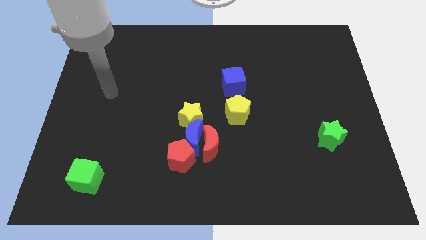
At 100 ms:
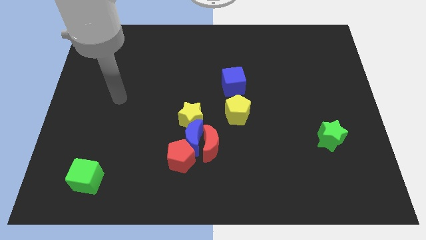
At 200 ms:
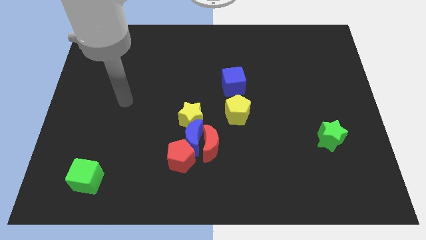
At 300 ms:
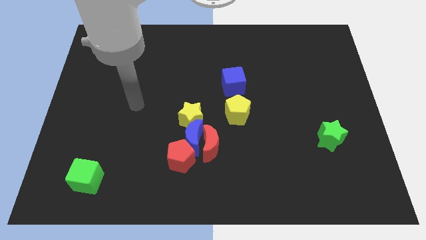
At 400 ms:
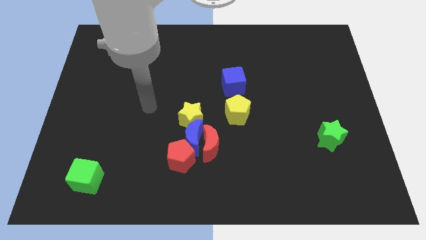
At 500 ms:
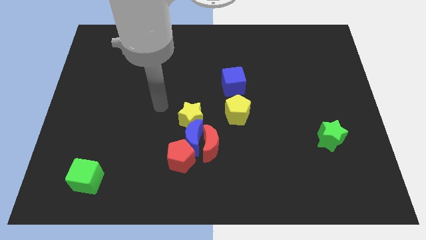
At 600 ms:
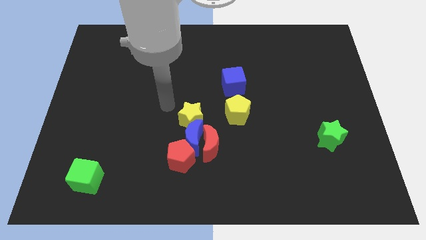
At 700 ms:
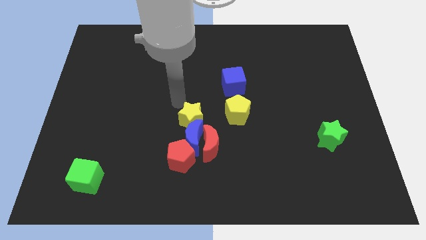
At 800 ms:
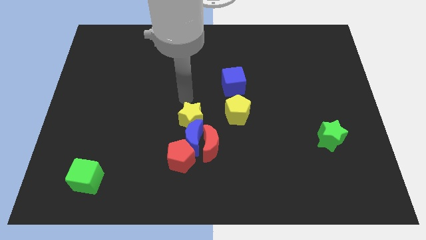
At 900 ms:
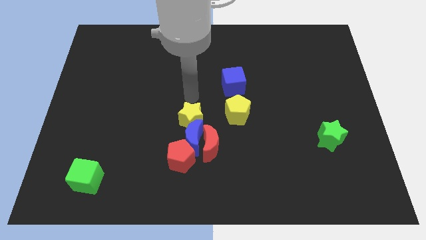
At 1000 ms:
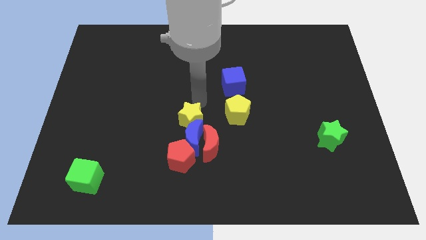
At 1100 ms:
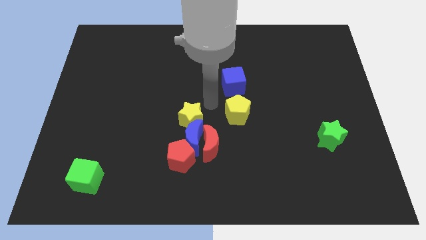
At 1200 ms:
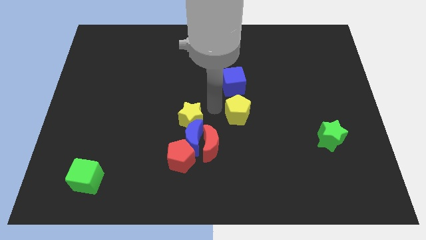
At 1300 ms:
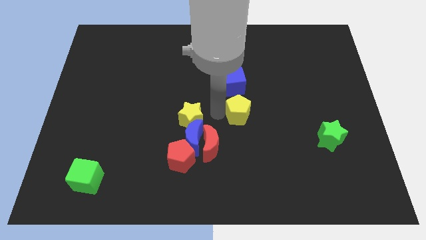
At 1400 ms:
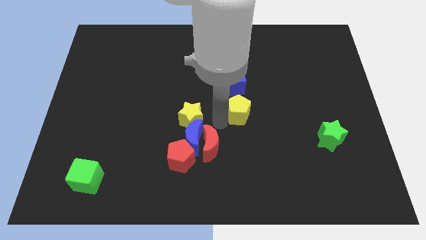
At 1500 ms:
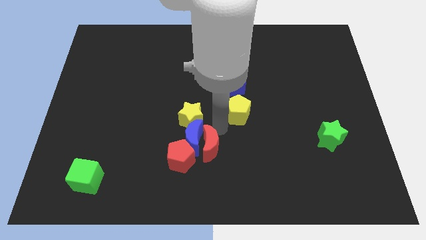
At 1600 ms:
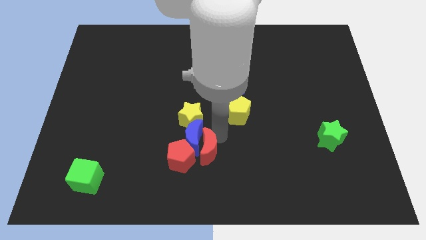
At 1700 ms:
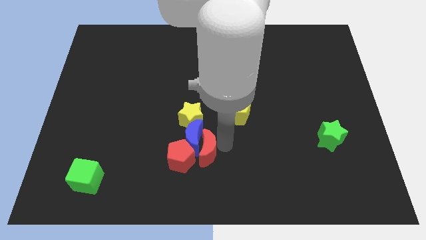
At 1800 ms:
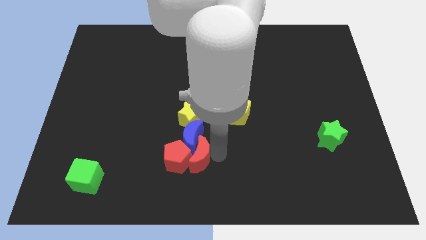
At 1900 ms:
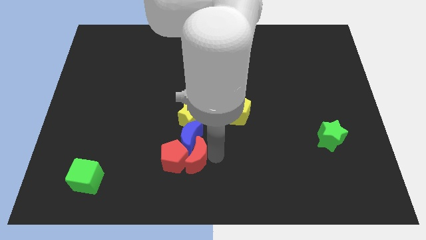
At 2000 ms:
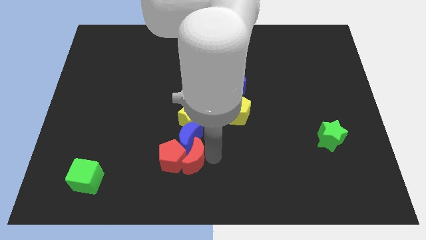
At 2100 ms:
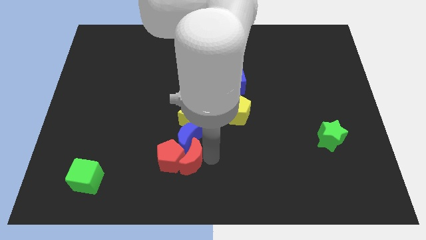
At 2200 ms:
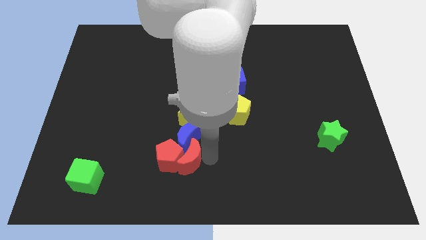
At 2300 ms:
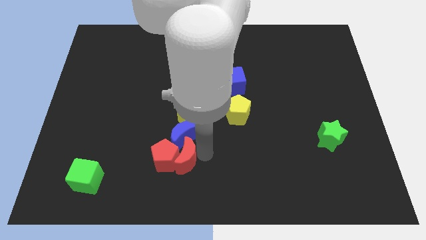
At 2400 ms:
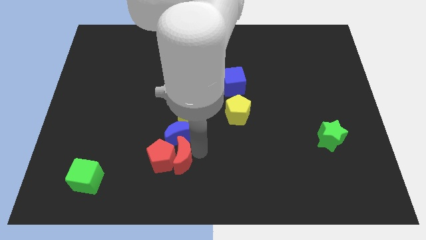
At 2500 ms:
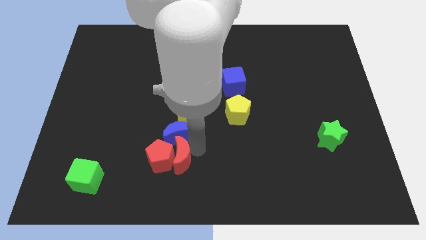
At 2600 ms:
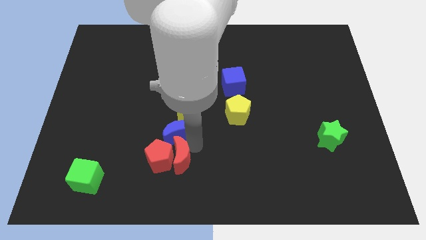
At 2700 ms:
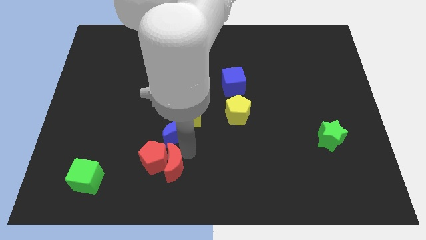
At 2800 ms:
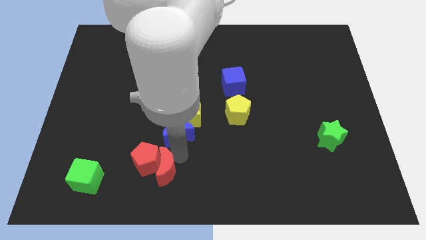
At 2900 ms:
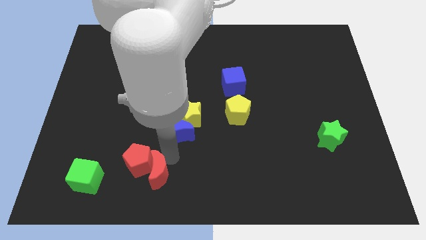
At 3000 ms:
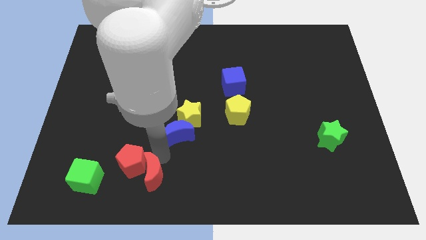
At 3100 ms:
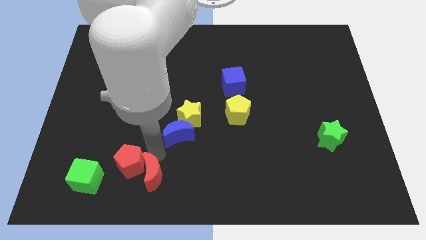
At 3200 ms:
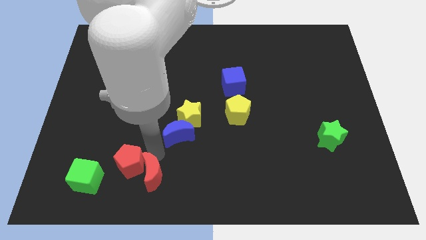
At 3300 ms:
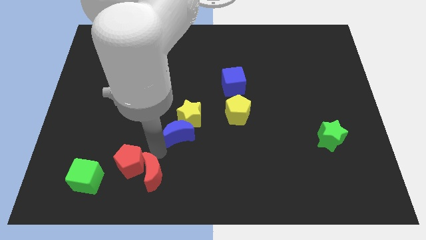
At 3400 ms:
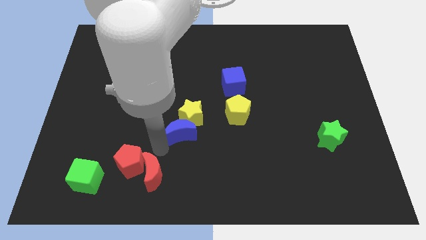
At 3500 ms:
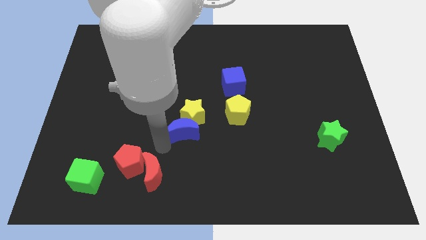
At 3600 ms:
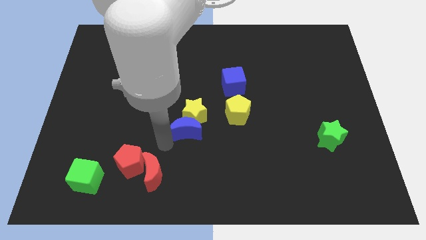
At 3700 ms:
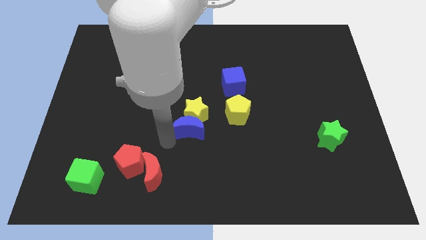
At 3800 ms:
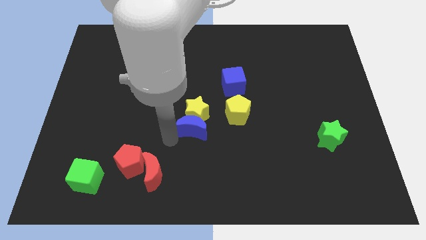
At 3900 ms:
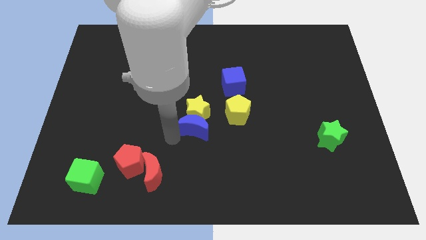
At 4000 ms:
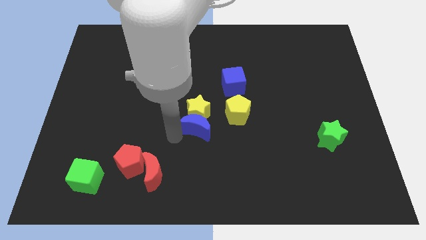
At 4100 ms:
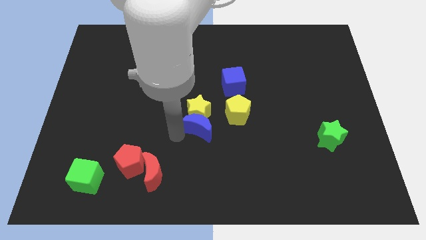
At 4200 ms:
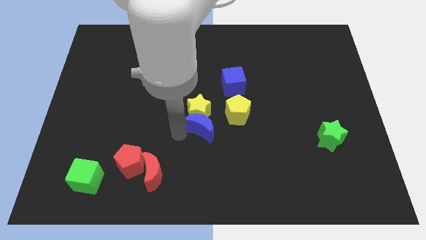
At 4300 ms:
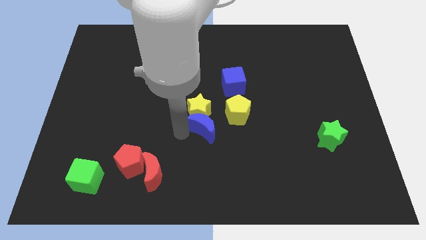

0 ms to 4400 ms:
move the blue moon away from the clump

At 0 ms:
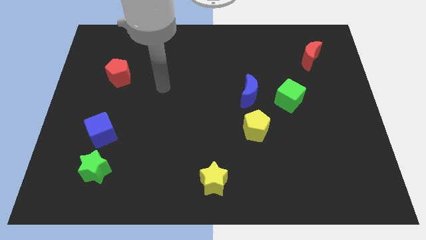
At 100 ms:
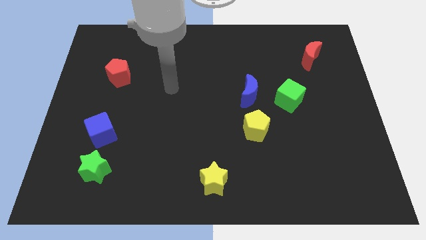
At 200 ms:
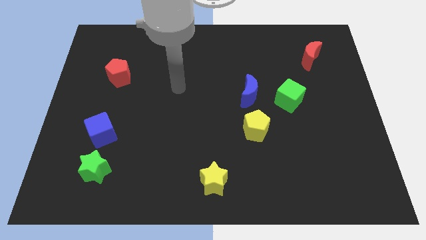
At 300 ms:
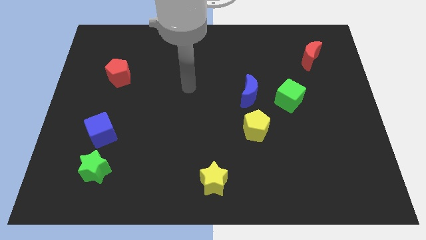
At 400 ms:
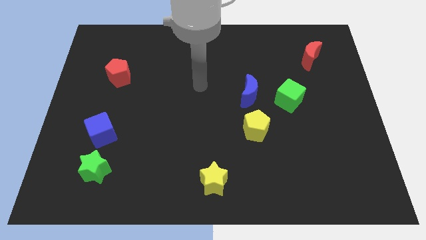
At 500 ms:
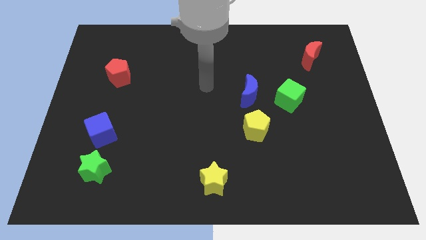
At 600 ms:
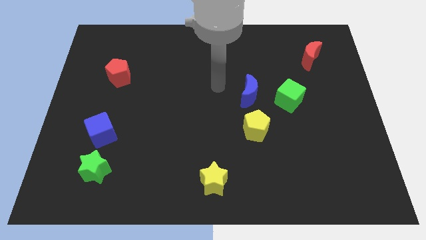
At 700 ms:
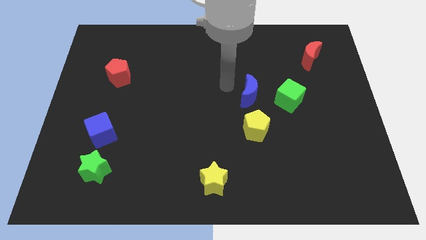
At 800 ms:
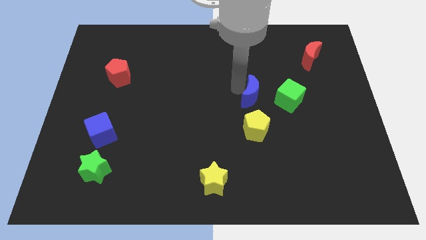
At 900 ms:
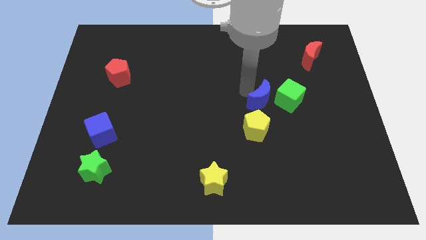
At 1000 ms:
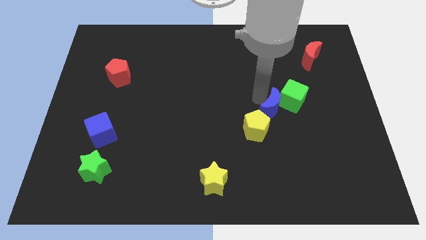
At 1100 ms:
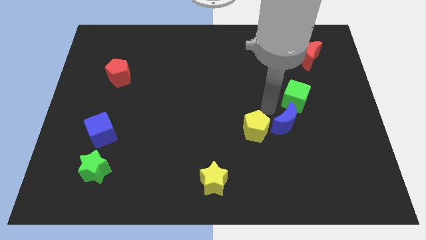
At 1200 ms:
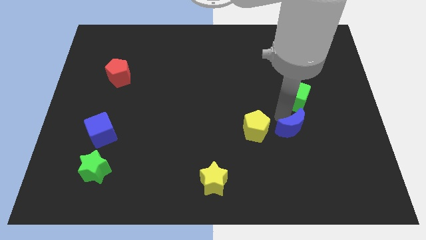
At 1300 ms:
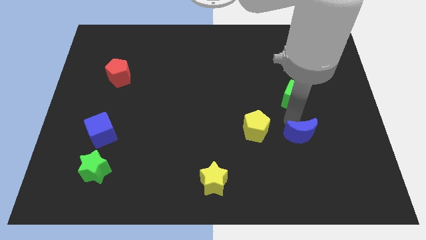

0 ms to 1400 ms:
separate the green cube from the blue moon

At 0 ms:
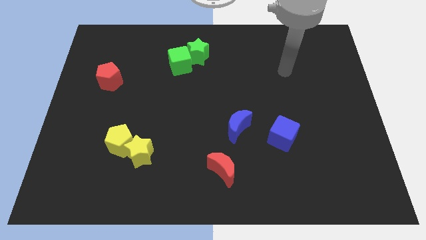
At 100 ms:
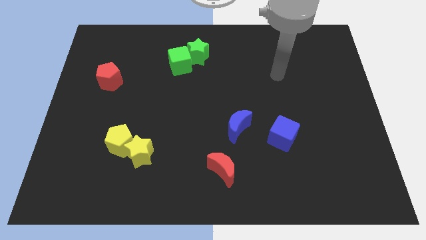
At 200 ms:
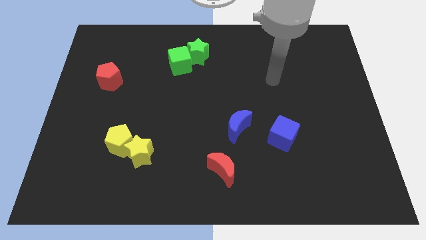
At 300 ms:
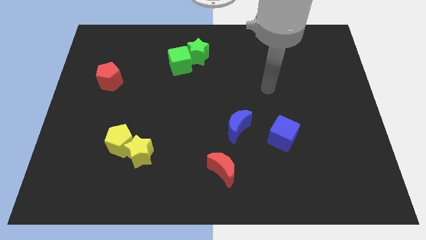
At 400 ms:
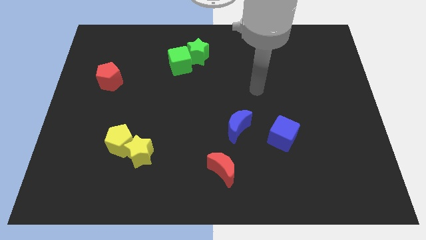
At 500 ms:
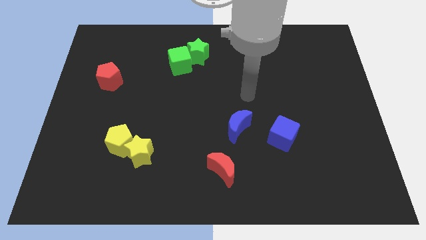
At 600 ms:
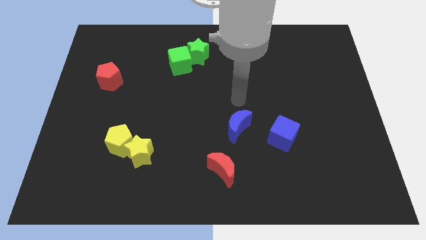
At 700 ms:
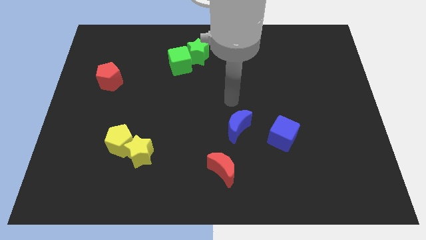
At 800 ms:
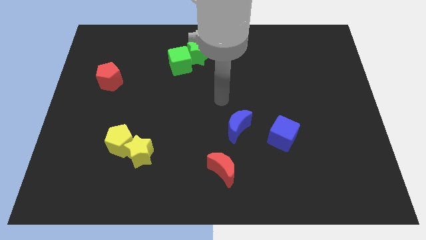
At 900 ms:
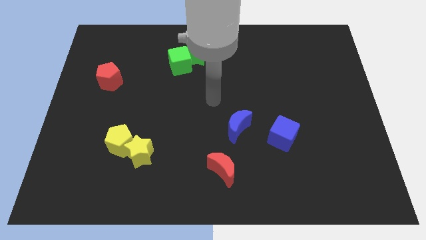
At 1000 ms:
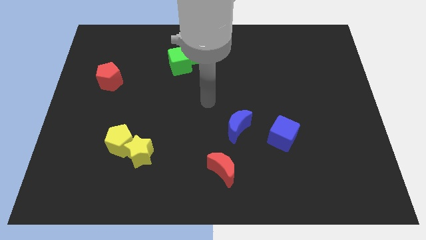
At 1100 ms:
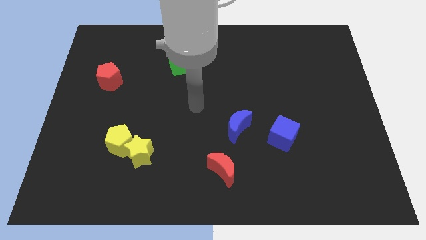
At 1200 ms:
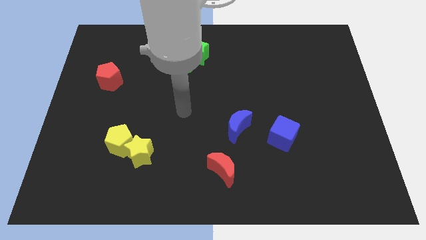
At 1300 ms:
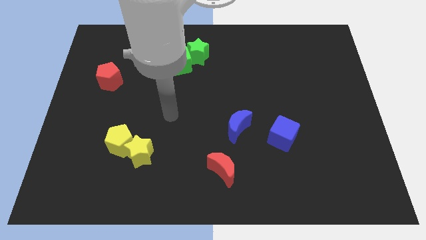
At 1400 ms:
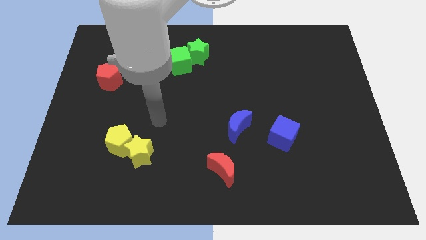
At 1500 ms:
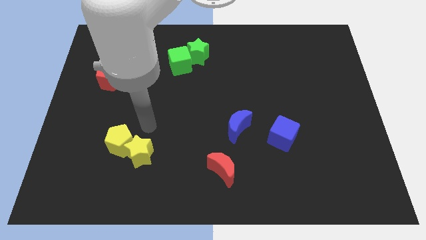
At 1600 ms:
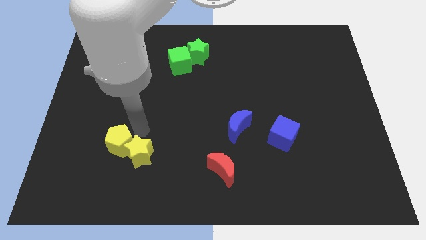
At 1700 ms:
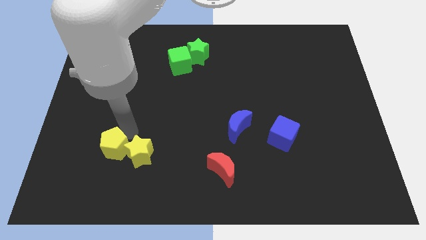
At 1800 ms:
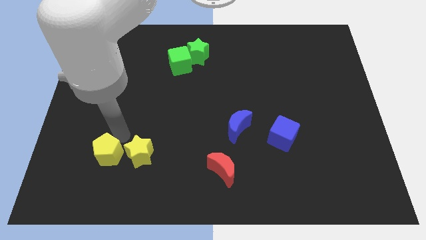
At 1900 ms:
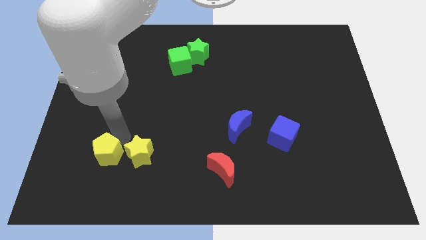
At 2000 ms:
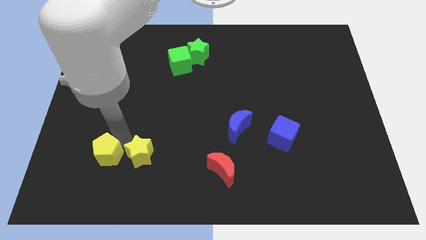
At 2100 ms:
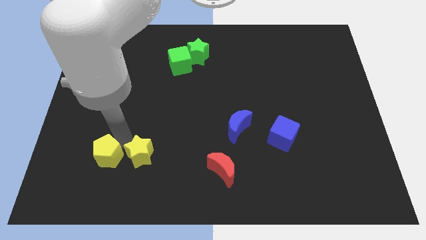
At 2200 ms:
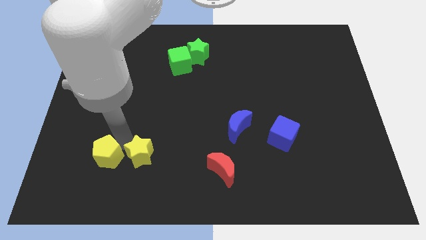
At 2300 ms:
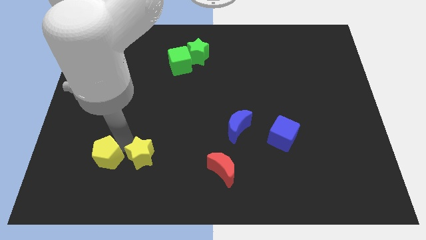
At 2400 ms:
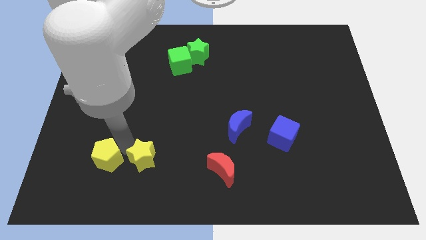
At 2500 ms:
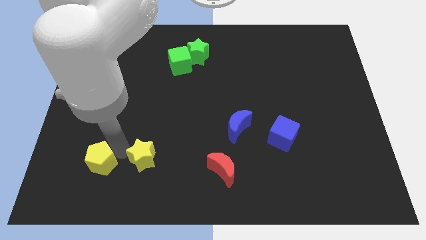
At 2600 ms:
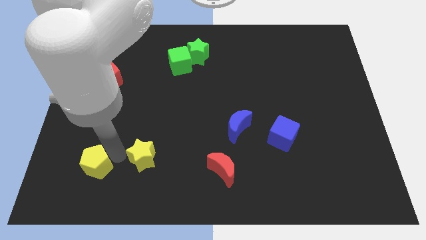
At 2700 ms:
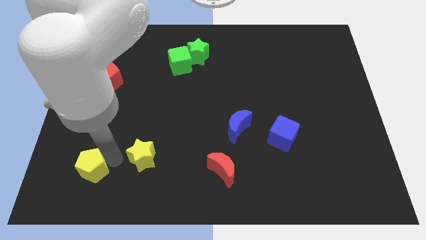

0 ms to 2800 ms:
move the yellow star away from the yellow pentagon

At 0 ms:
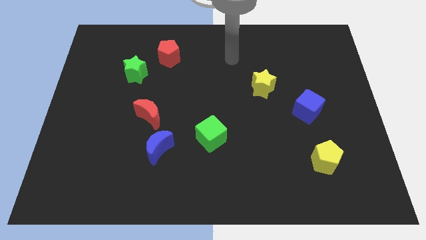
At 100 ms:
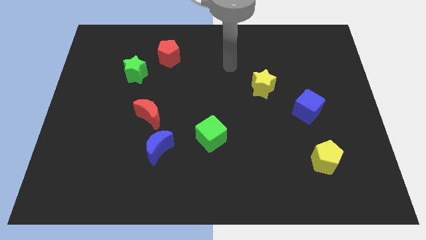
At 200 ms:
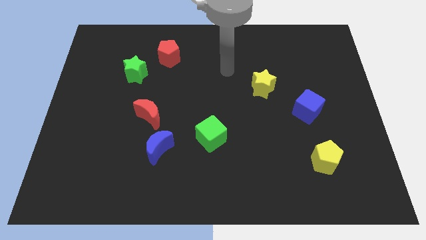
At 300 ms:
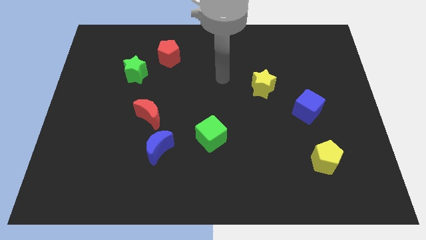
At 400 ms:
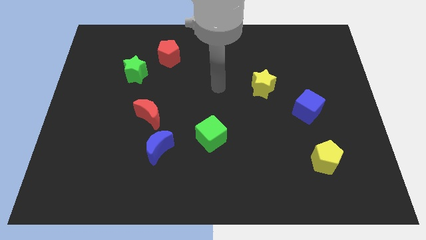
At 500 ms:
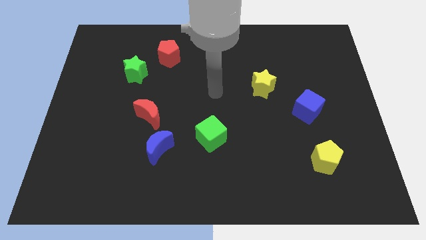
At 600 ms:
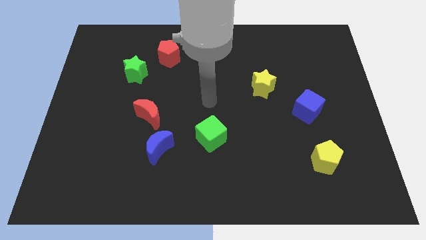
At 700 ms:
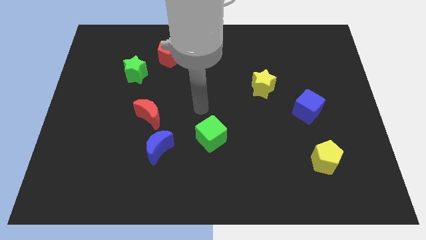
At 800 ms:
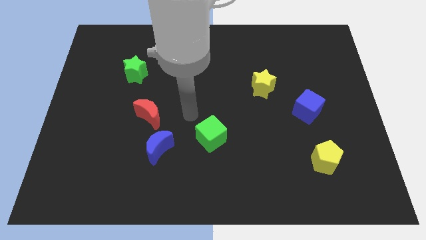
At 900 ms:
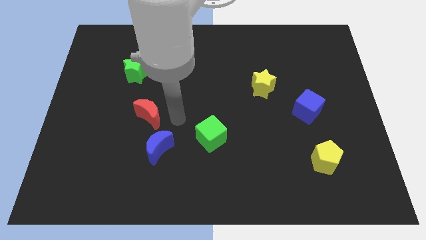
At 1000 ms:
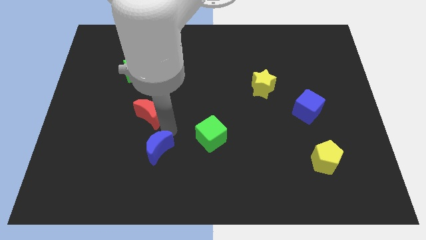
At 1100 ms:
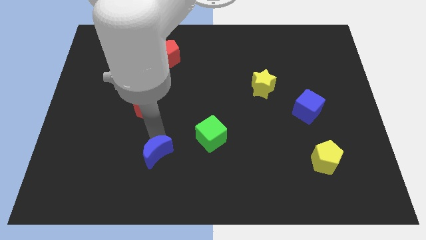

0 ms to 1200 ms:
pull the red moon apart from the blue moon
